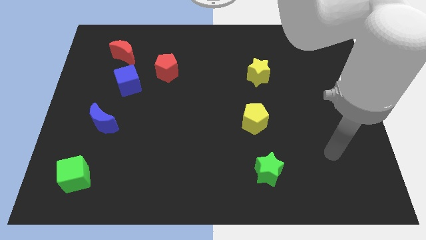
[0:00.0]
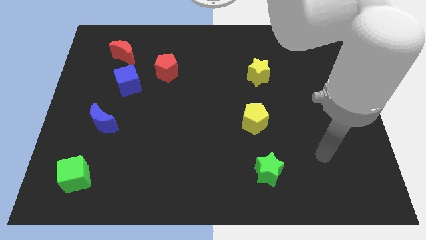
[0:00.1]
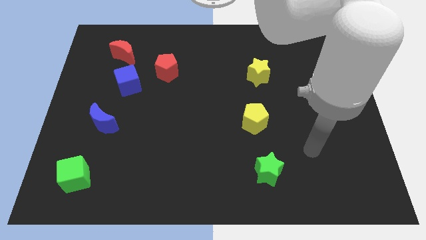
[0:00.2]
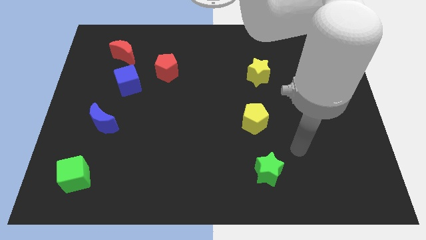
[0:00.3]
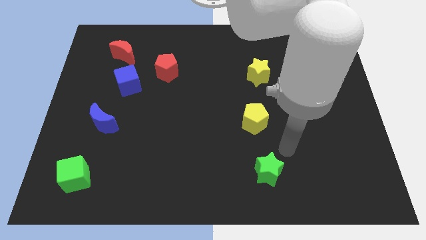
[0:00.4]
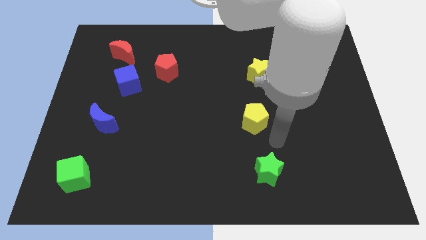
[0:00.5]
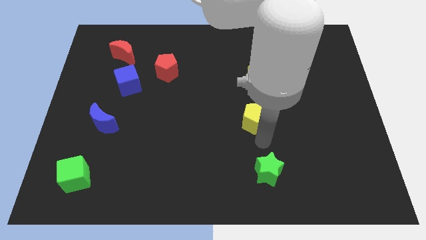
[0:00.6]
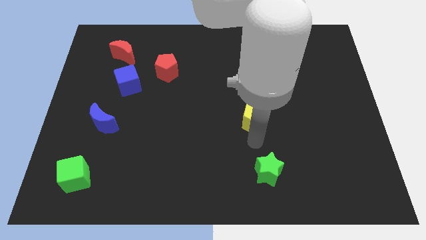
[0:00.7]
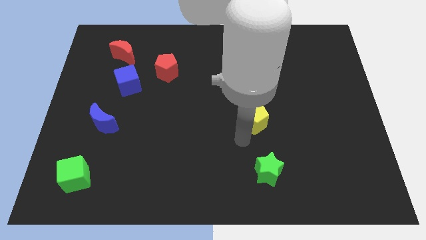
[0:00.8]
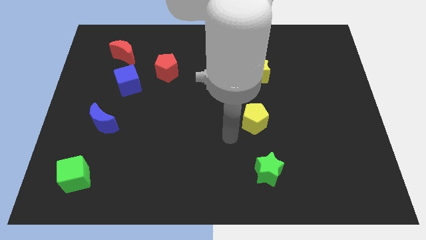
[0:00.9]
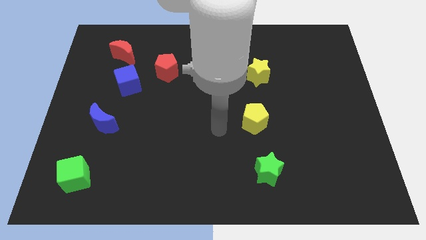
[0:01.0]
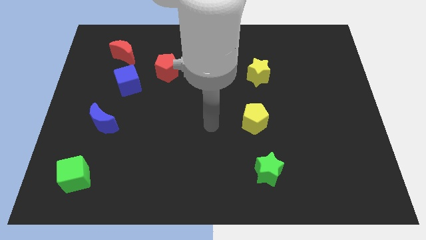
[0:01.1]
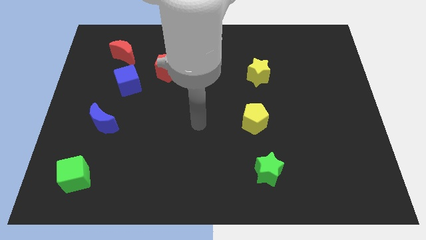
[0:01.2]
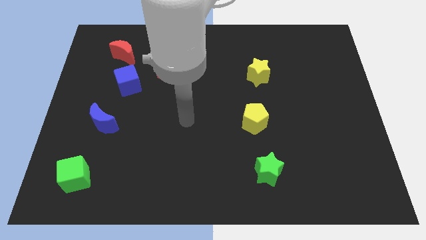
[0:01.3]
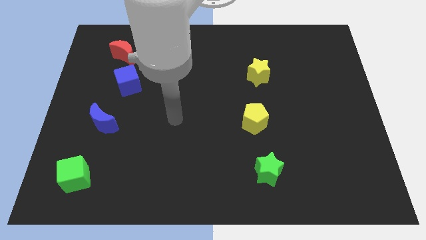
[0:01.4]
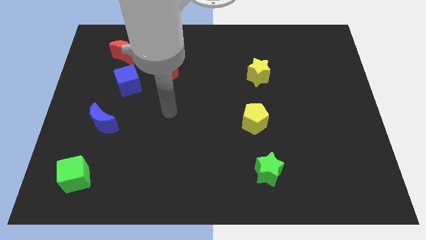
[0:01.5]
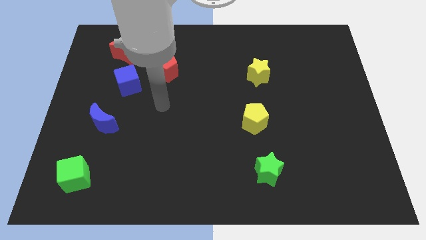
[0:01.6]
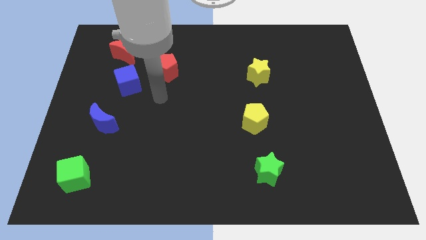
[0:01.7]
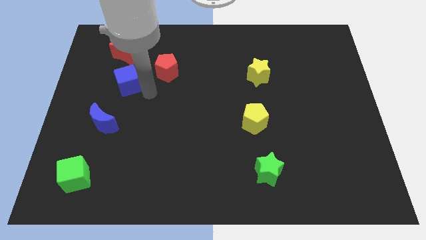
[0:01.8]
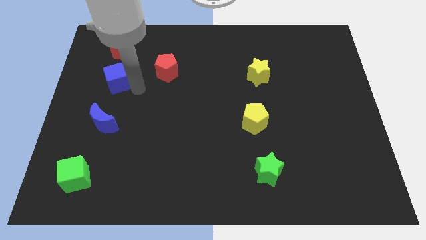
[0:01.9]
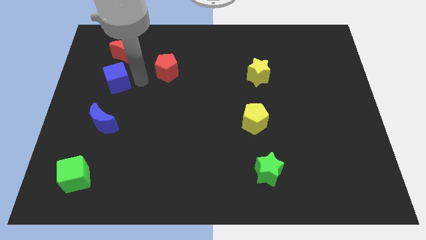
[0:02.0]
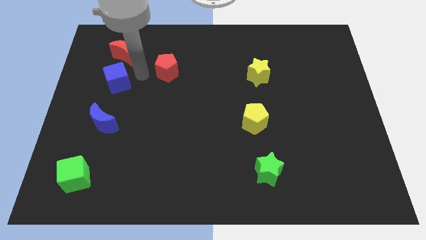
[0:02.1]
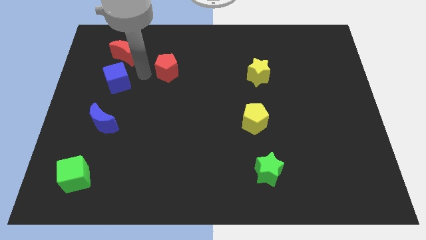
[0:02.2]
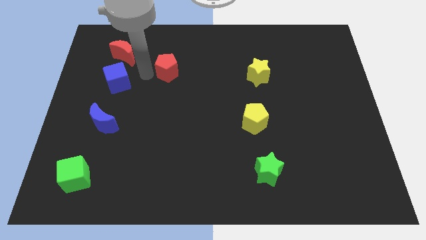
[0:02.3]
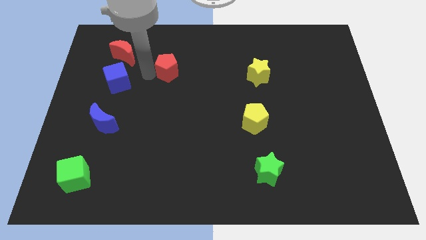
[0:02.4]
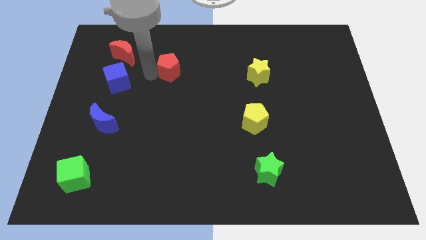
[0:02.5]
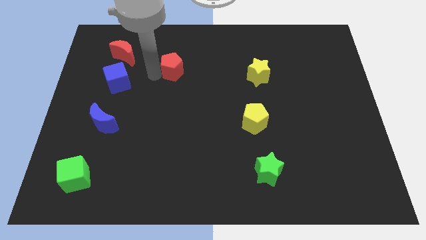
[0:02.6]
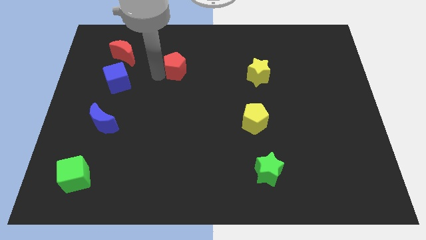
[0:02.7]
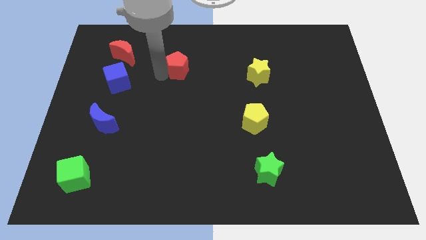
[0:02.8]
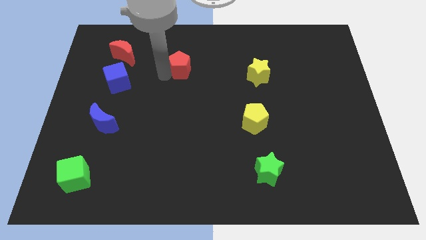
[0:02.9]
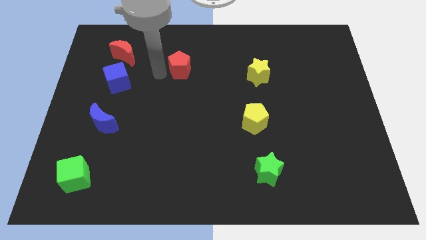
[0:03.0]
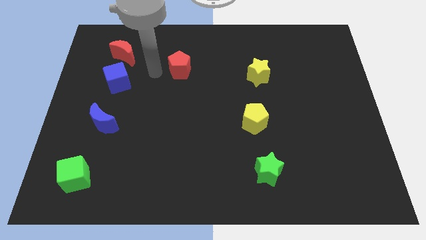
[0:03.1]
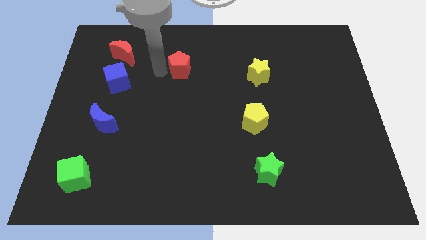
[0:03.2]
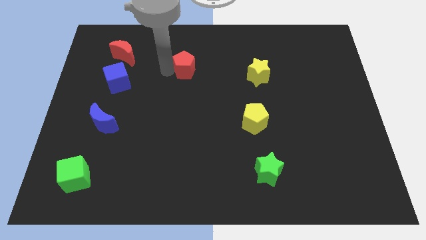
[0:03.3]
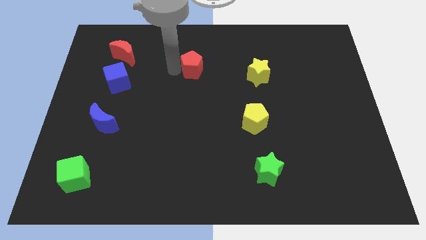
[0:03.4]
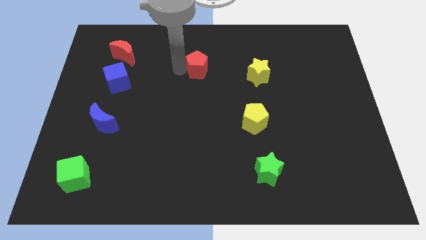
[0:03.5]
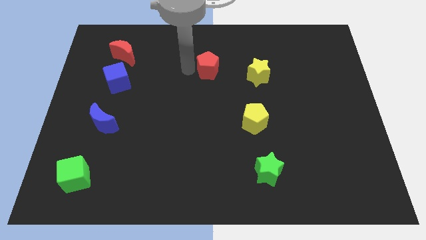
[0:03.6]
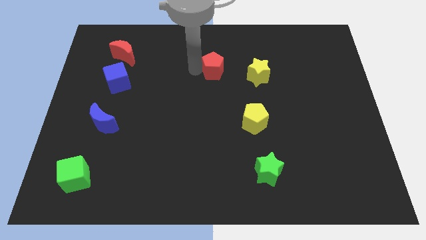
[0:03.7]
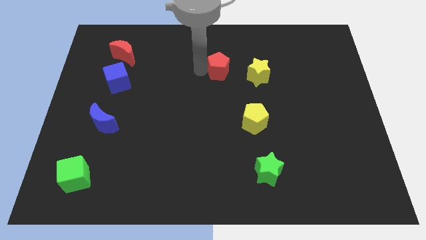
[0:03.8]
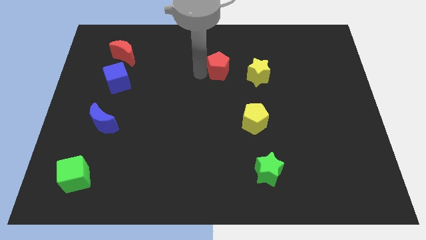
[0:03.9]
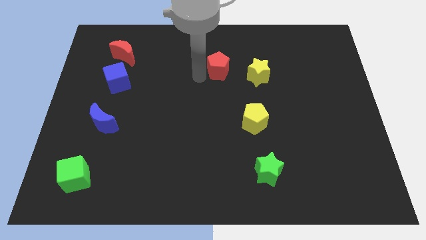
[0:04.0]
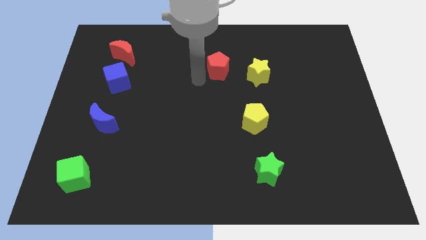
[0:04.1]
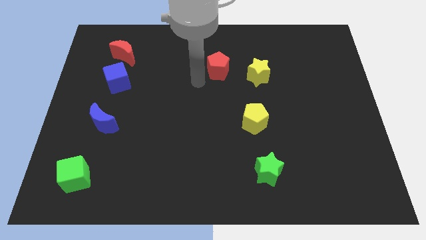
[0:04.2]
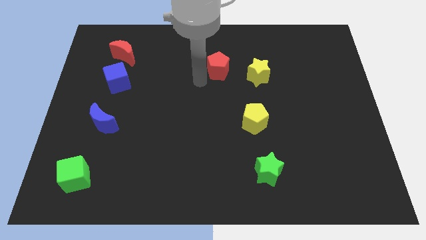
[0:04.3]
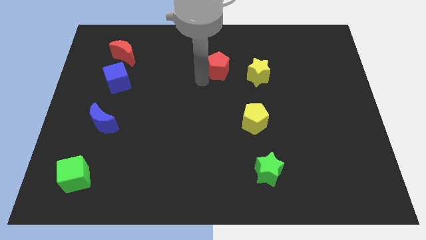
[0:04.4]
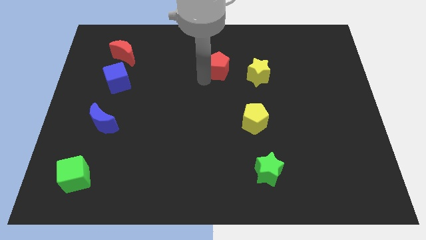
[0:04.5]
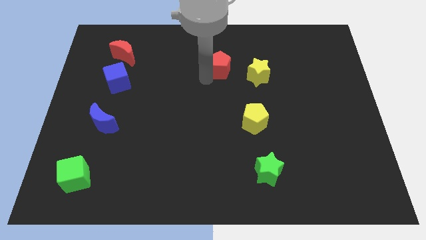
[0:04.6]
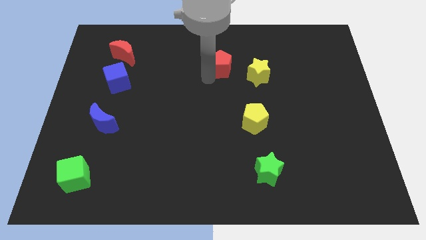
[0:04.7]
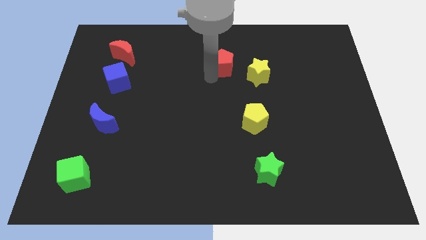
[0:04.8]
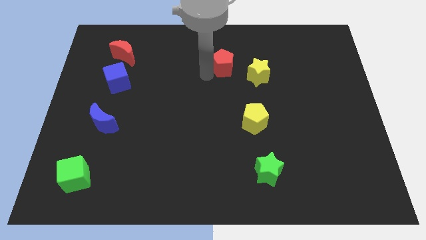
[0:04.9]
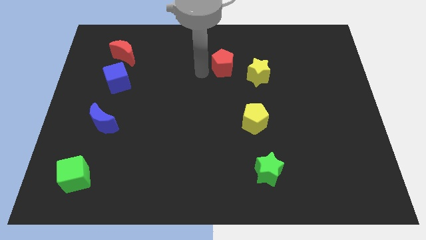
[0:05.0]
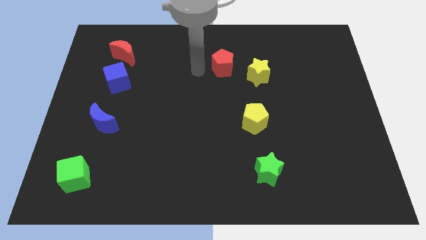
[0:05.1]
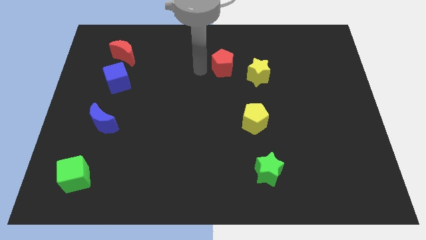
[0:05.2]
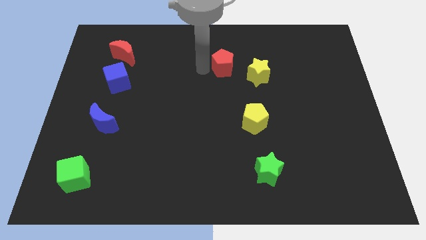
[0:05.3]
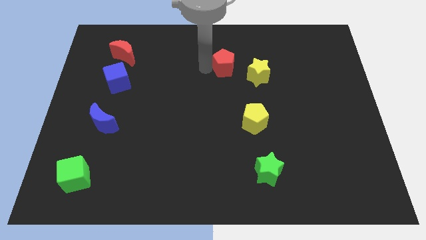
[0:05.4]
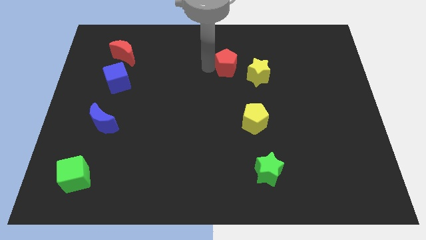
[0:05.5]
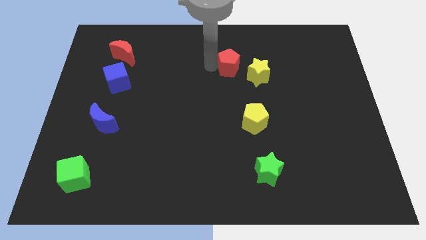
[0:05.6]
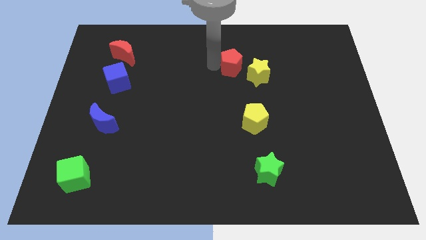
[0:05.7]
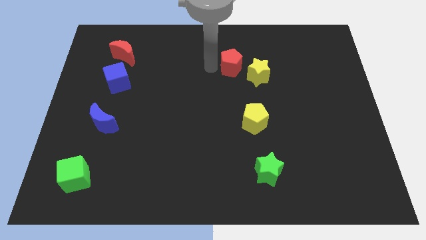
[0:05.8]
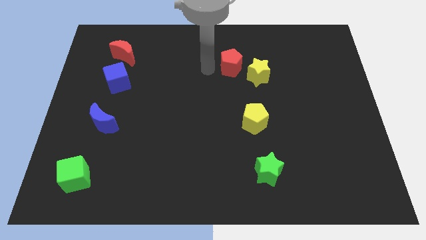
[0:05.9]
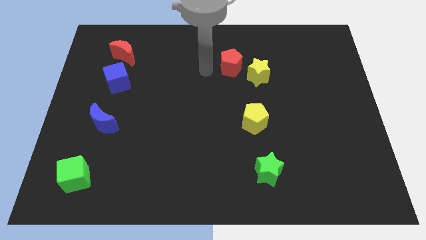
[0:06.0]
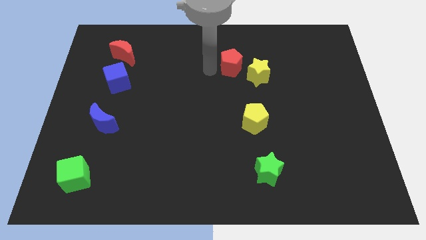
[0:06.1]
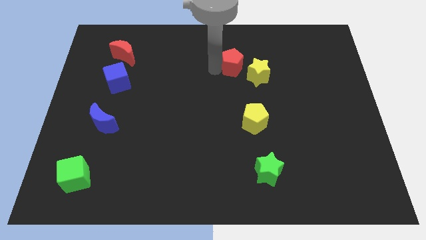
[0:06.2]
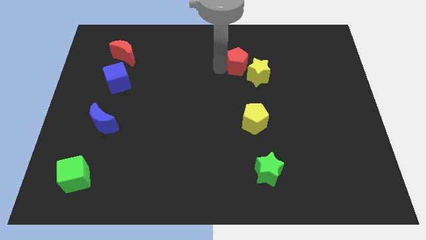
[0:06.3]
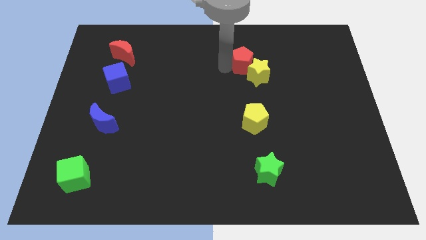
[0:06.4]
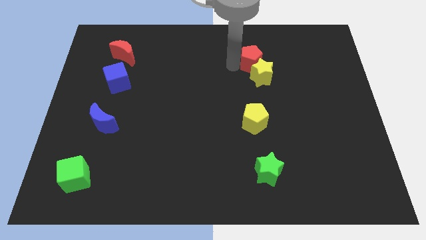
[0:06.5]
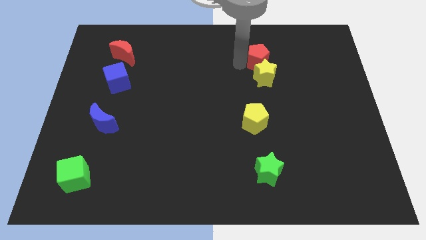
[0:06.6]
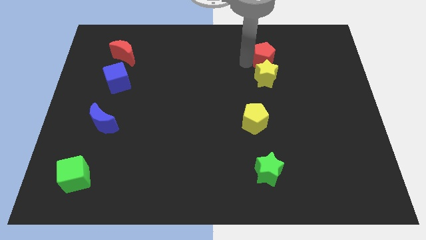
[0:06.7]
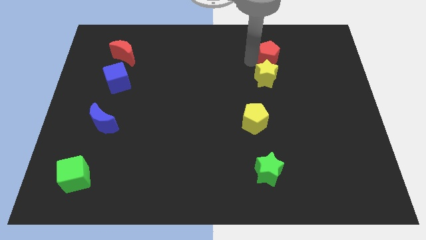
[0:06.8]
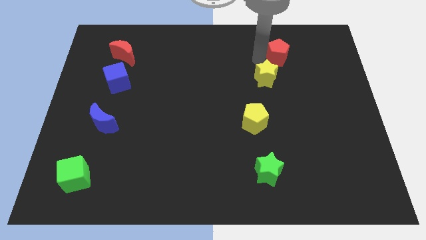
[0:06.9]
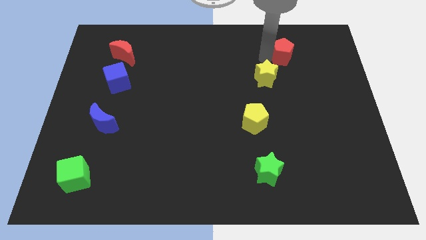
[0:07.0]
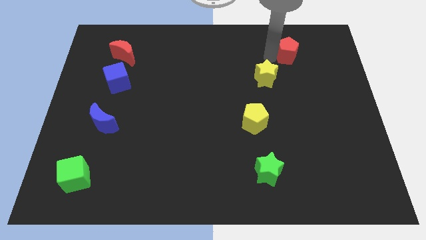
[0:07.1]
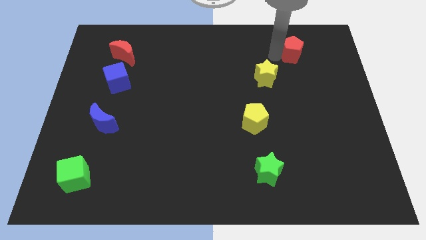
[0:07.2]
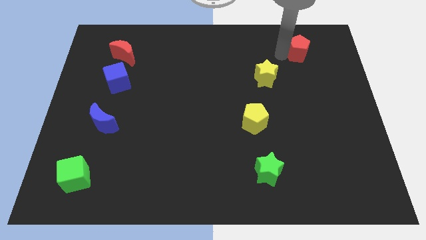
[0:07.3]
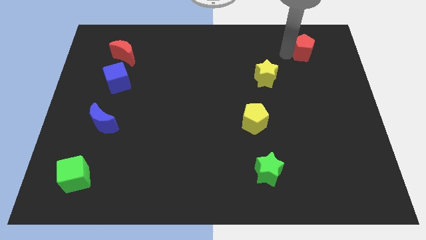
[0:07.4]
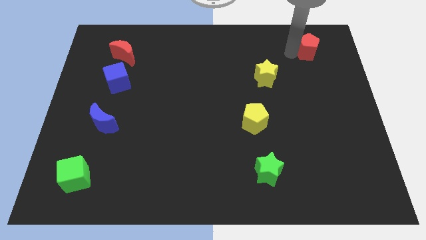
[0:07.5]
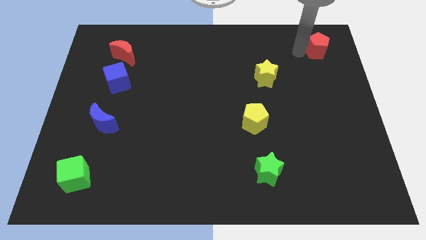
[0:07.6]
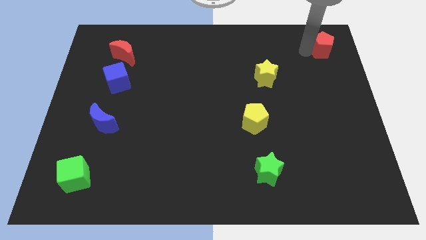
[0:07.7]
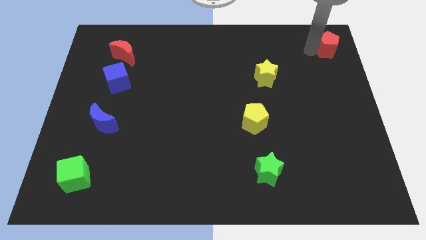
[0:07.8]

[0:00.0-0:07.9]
push the red pentagon to the top right corner
